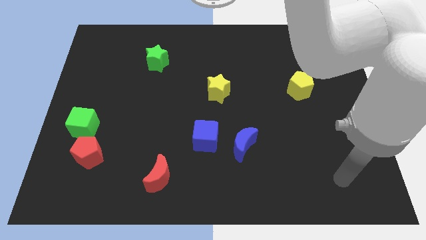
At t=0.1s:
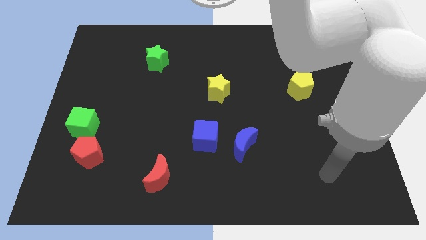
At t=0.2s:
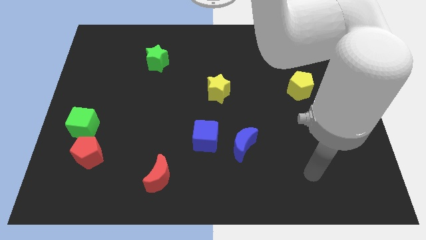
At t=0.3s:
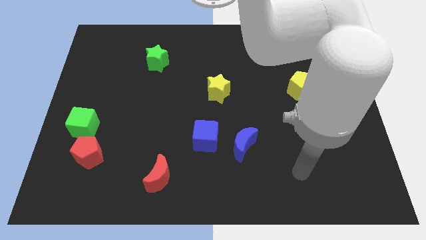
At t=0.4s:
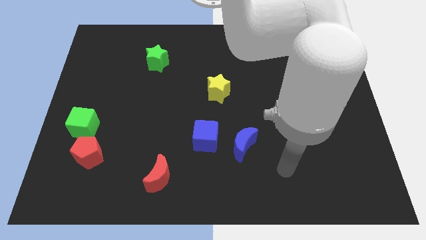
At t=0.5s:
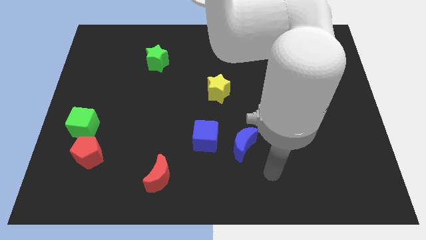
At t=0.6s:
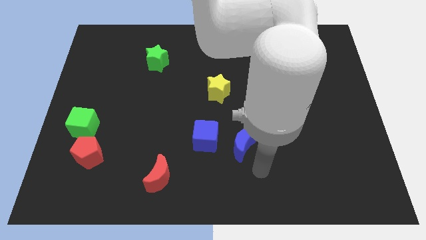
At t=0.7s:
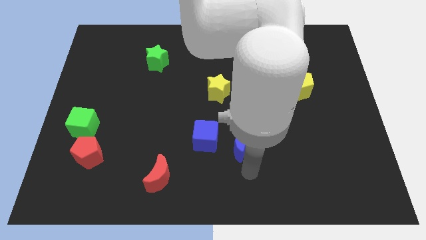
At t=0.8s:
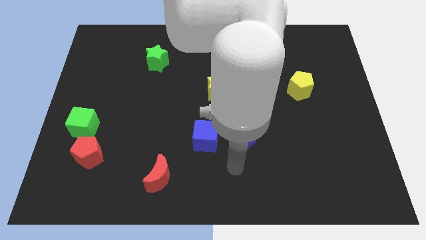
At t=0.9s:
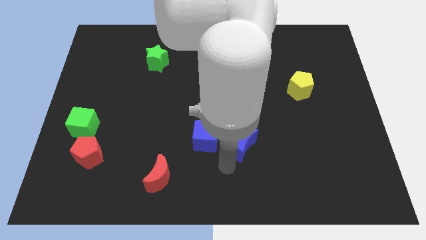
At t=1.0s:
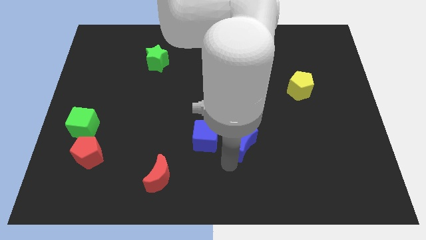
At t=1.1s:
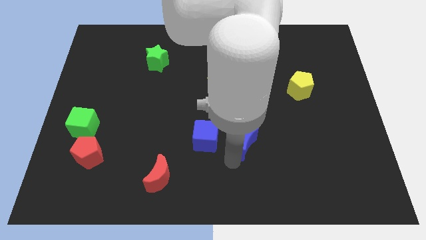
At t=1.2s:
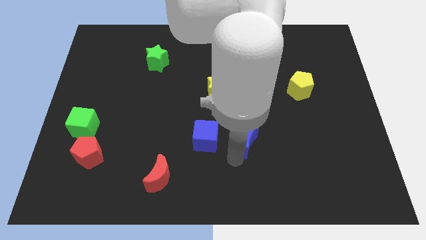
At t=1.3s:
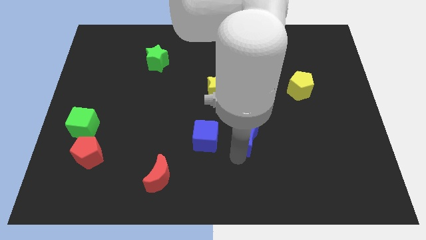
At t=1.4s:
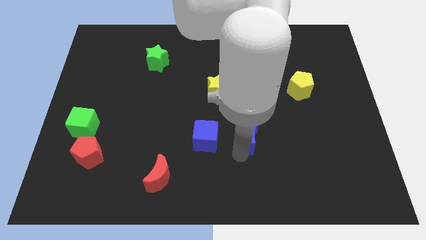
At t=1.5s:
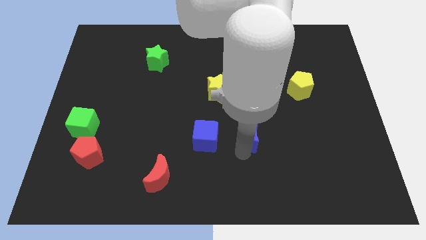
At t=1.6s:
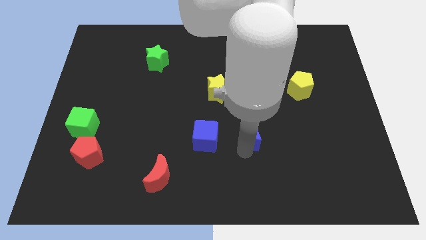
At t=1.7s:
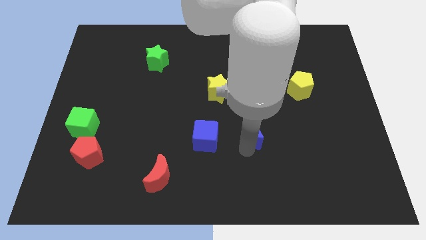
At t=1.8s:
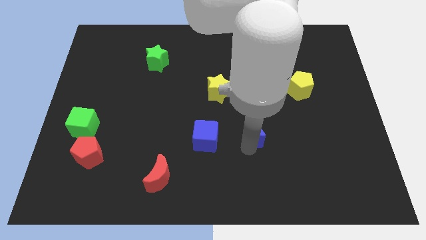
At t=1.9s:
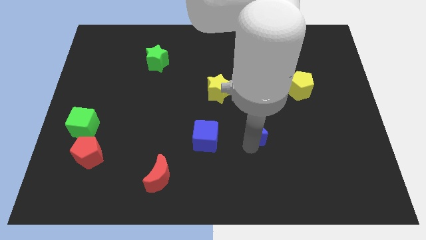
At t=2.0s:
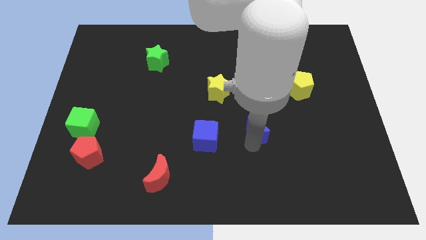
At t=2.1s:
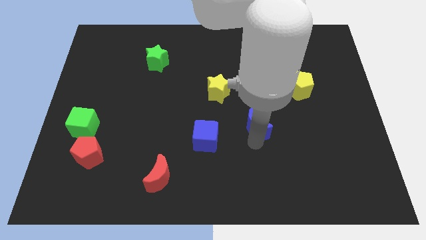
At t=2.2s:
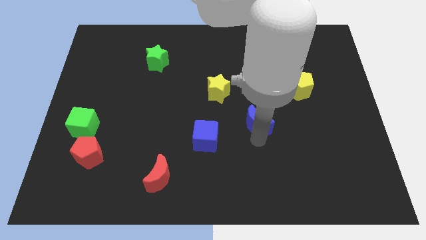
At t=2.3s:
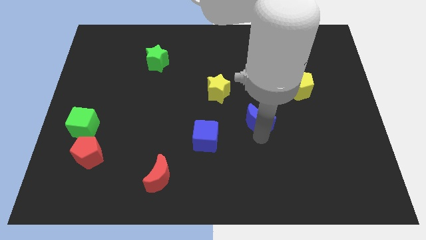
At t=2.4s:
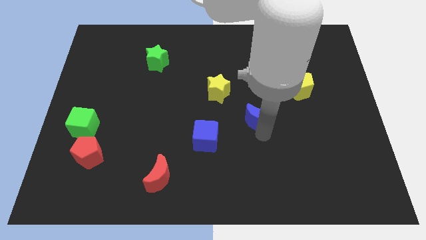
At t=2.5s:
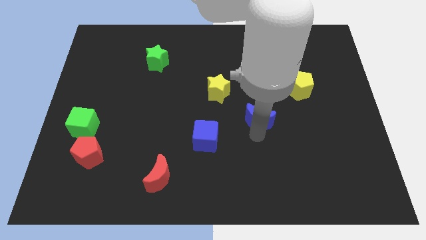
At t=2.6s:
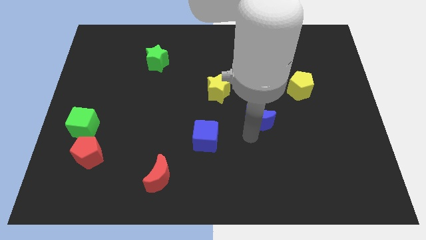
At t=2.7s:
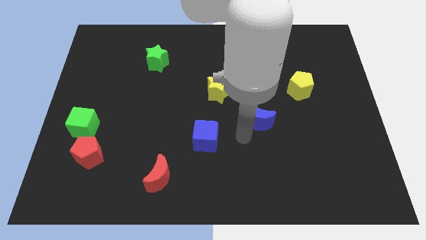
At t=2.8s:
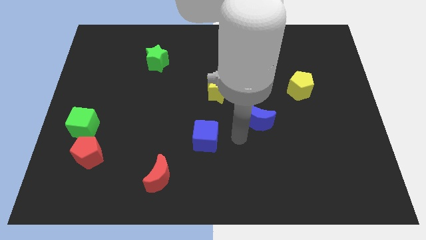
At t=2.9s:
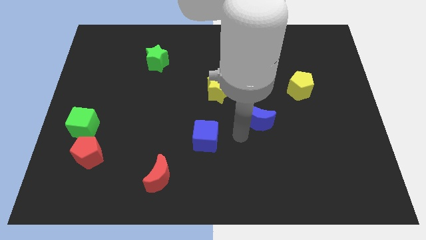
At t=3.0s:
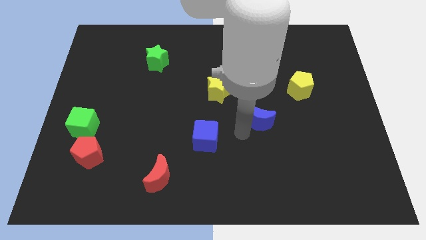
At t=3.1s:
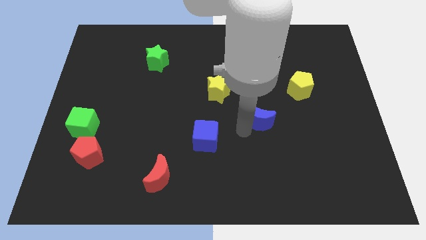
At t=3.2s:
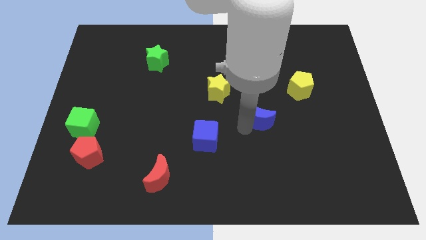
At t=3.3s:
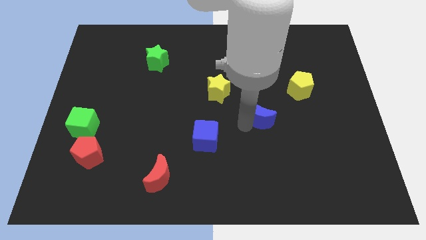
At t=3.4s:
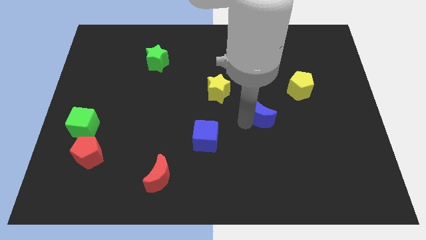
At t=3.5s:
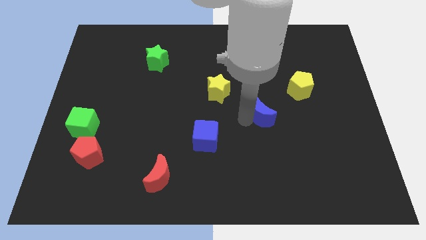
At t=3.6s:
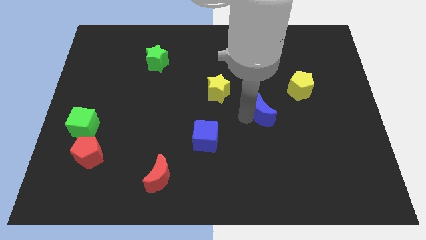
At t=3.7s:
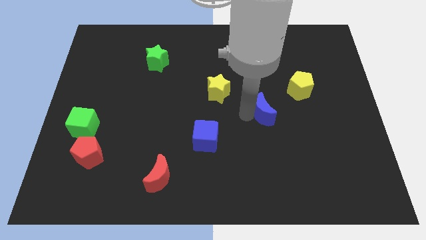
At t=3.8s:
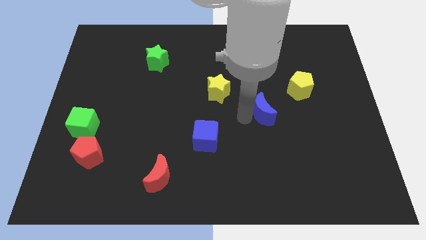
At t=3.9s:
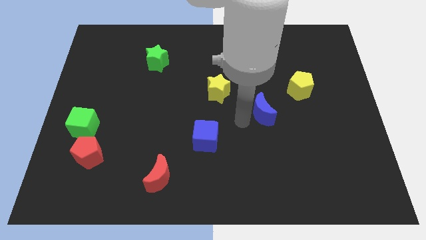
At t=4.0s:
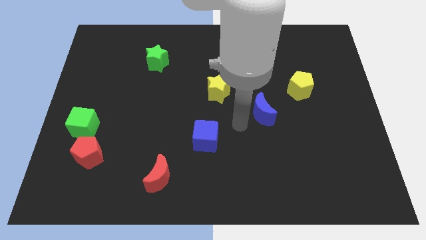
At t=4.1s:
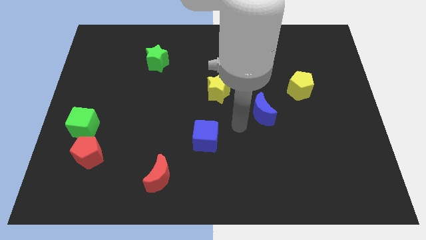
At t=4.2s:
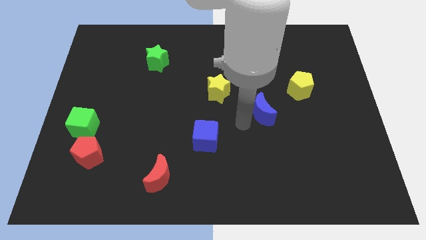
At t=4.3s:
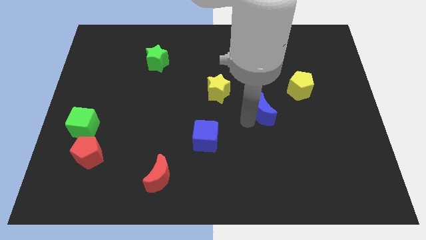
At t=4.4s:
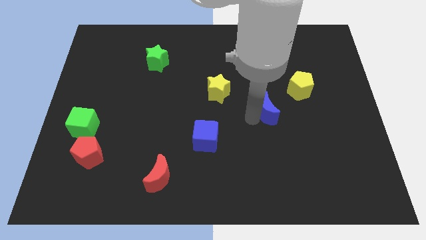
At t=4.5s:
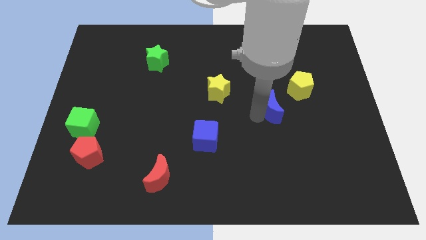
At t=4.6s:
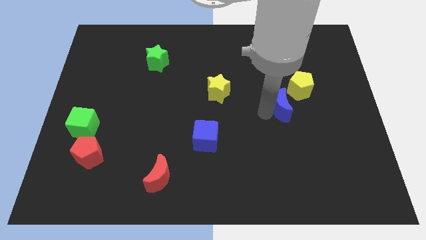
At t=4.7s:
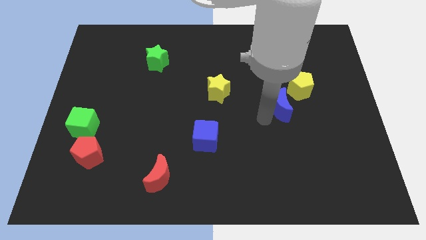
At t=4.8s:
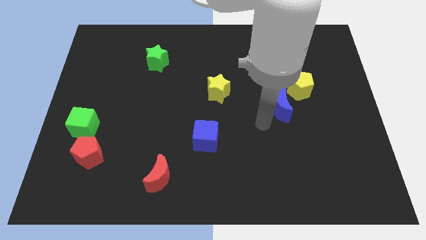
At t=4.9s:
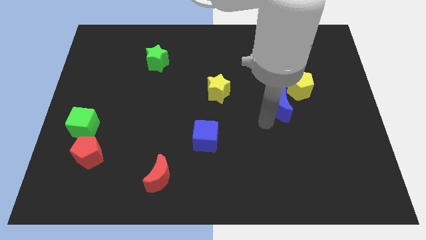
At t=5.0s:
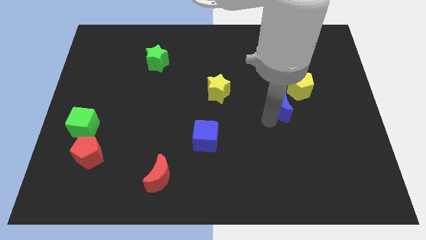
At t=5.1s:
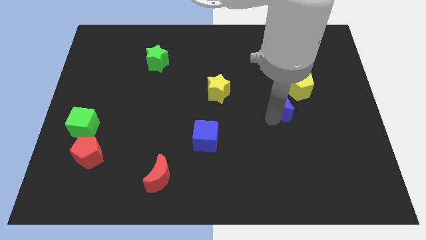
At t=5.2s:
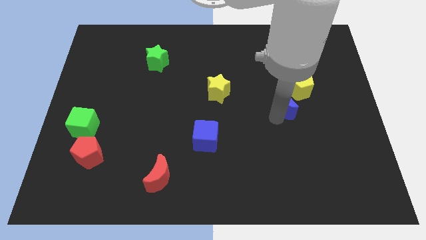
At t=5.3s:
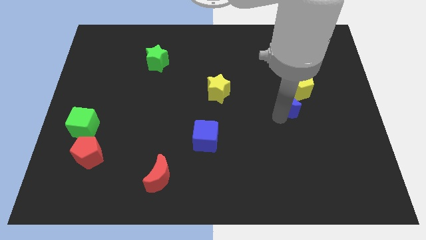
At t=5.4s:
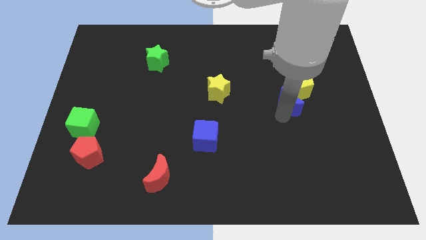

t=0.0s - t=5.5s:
slide the blue moon next to the yellow pentagon

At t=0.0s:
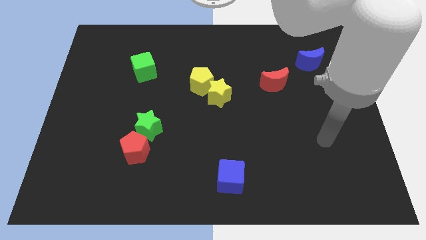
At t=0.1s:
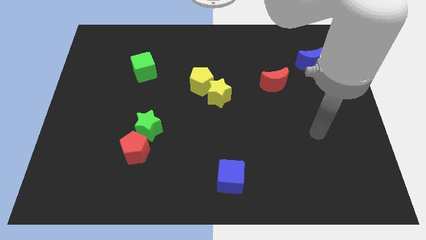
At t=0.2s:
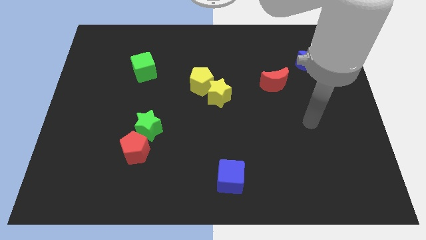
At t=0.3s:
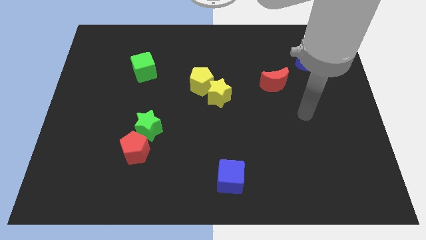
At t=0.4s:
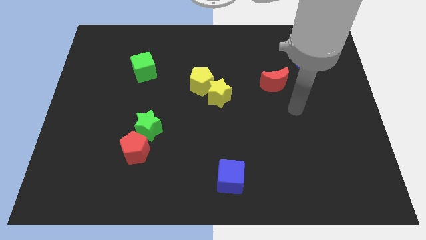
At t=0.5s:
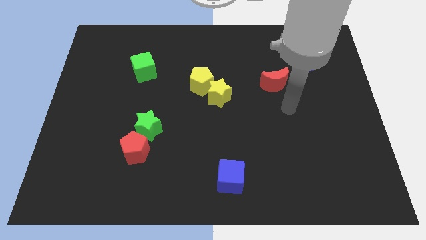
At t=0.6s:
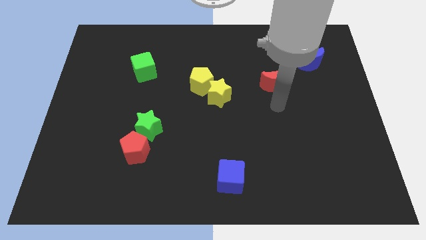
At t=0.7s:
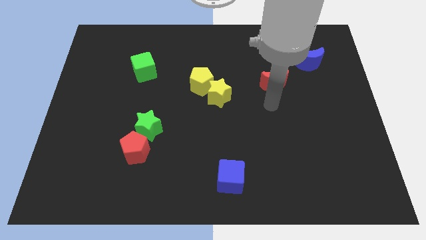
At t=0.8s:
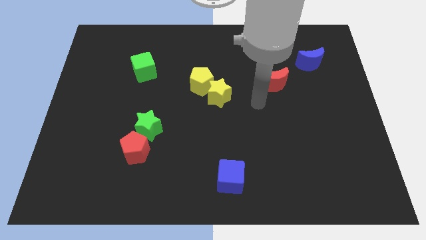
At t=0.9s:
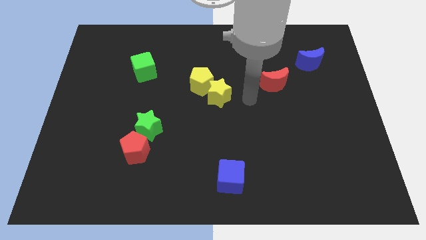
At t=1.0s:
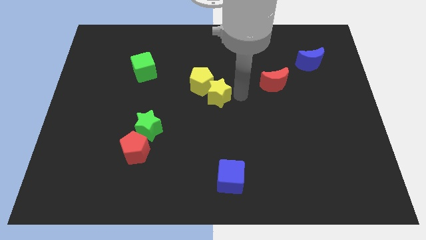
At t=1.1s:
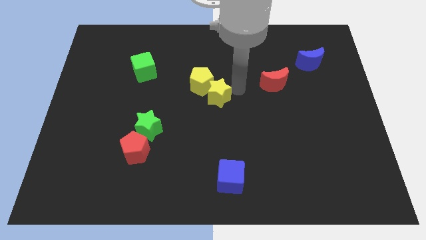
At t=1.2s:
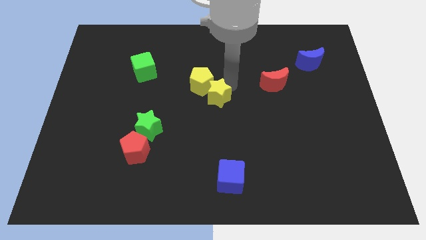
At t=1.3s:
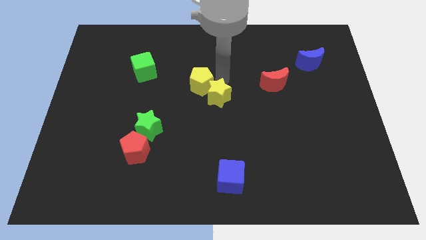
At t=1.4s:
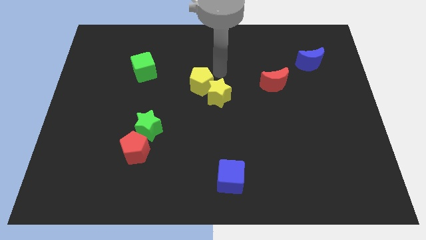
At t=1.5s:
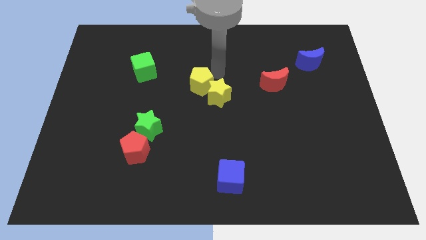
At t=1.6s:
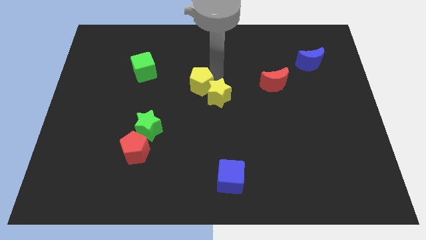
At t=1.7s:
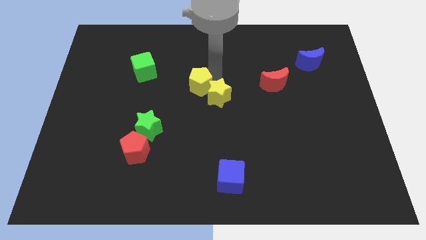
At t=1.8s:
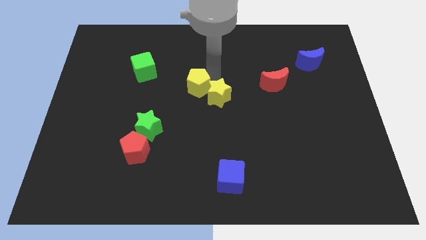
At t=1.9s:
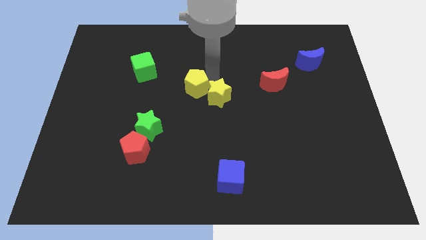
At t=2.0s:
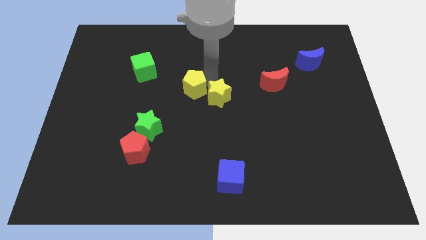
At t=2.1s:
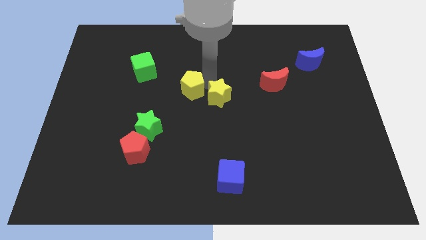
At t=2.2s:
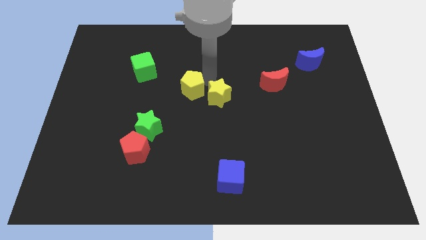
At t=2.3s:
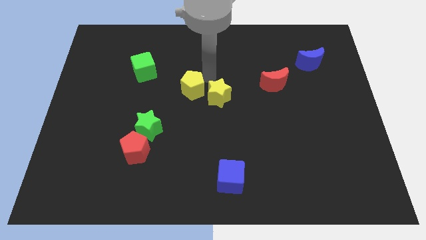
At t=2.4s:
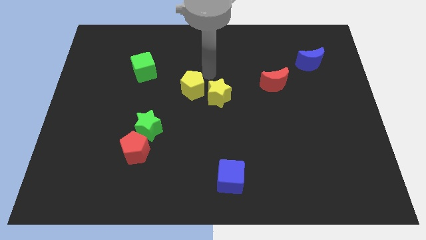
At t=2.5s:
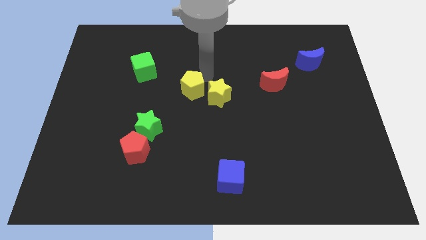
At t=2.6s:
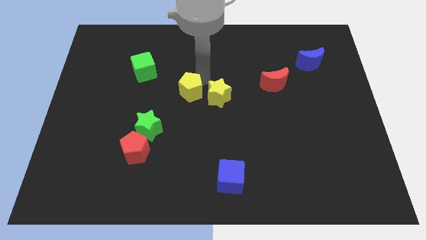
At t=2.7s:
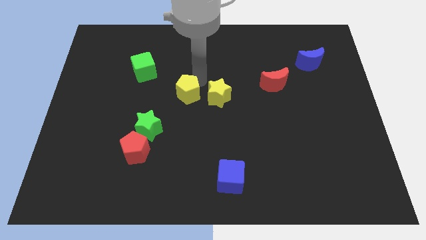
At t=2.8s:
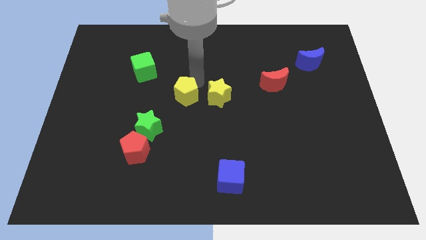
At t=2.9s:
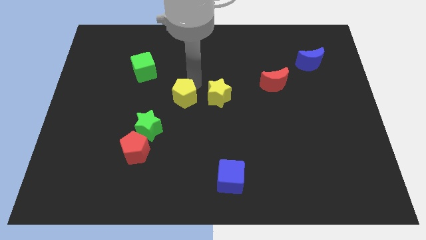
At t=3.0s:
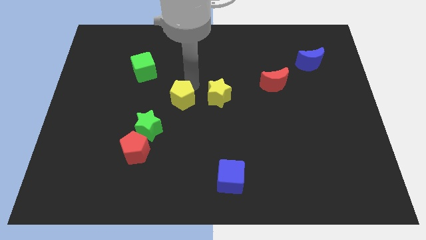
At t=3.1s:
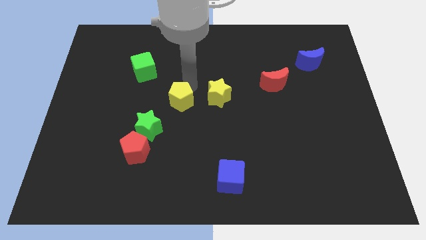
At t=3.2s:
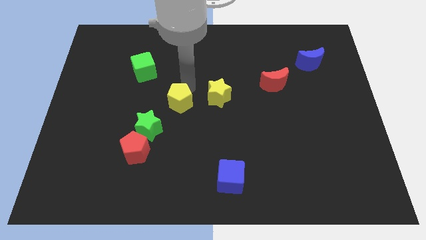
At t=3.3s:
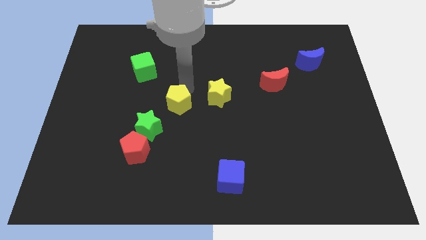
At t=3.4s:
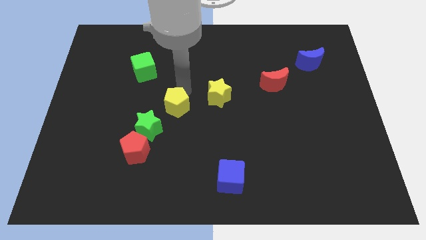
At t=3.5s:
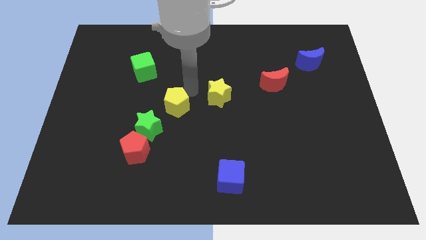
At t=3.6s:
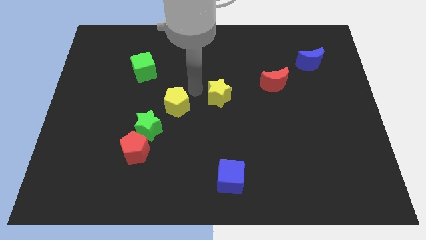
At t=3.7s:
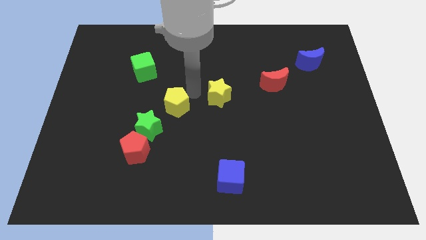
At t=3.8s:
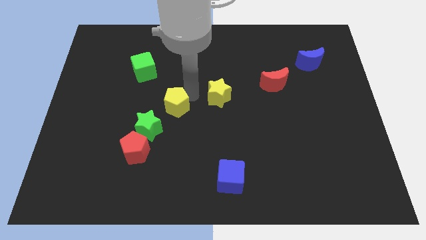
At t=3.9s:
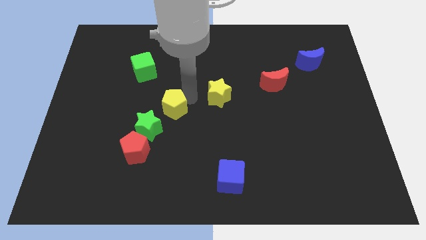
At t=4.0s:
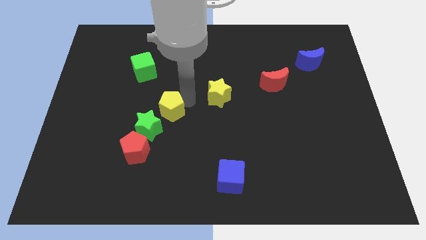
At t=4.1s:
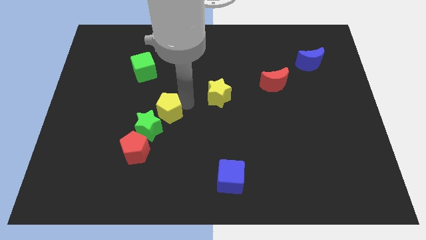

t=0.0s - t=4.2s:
slide the yellow pentagon to the green star
